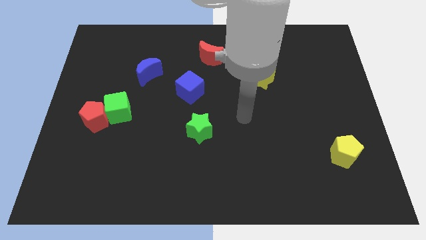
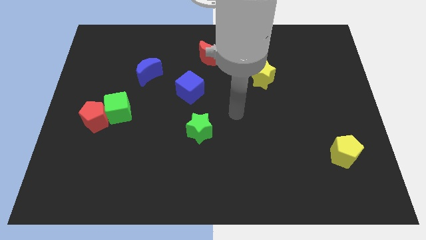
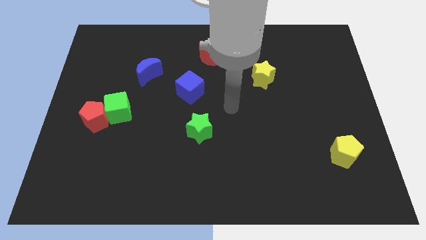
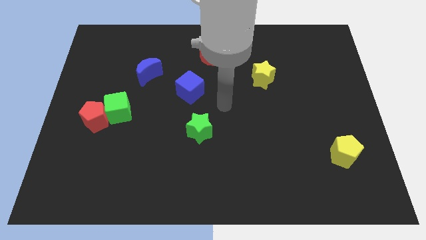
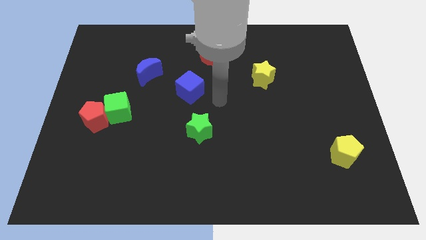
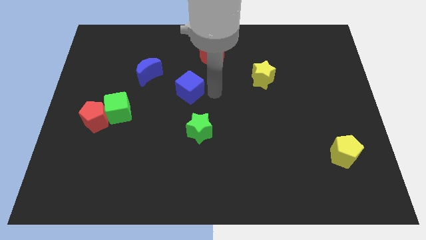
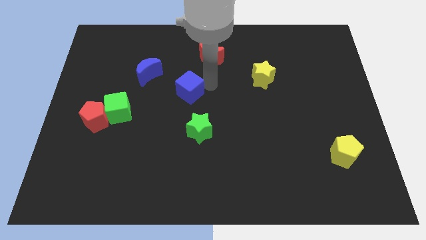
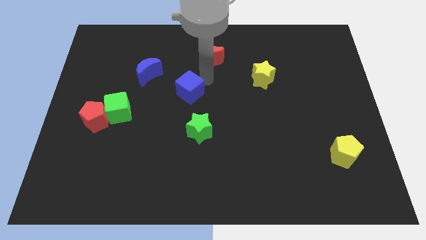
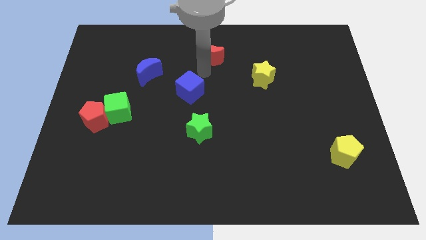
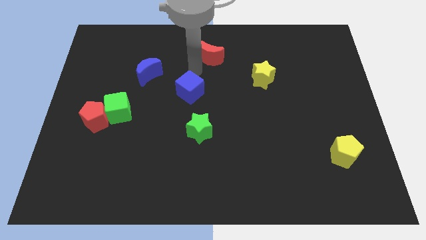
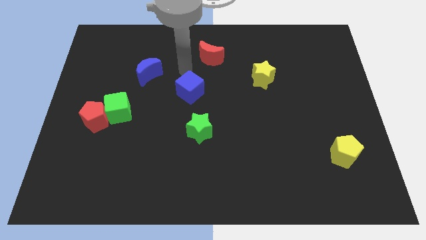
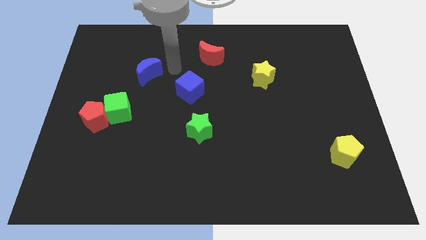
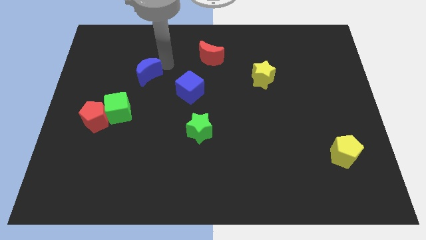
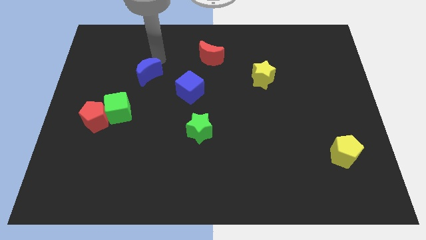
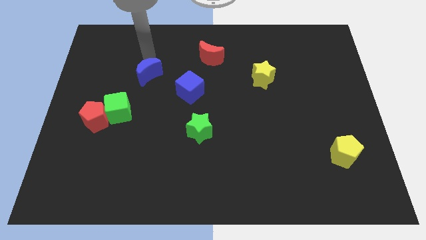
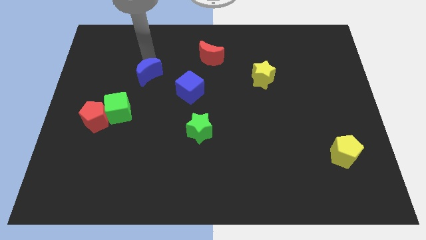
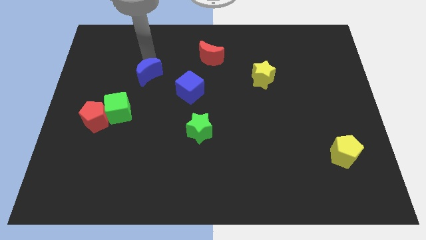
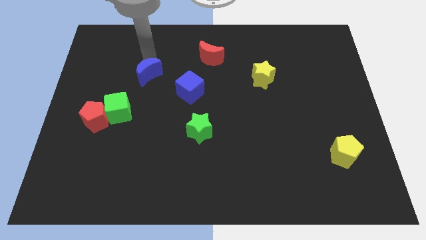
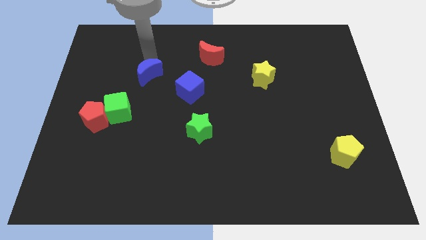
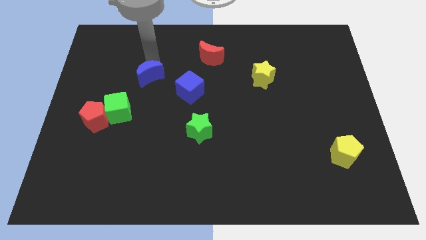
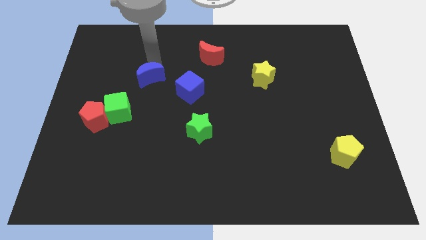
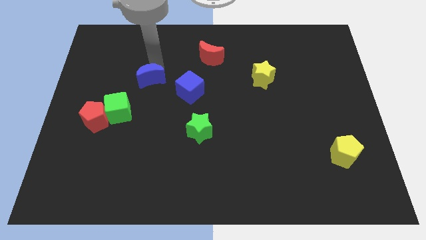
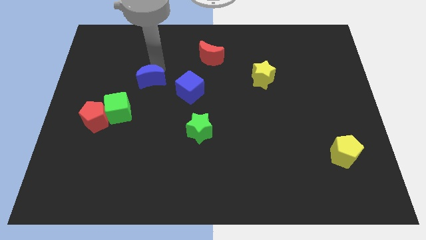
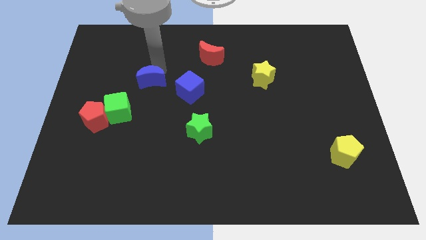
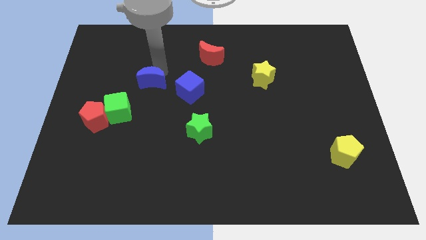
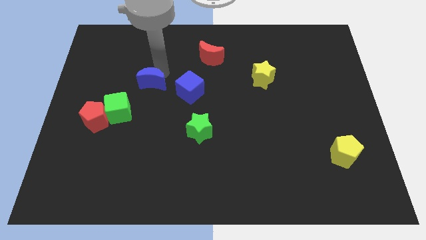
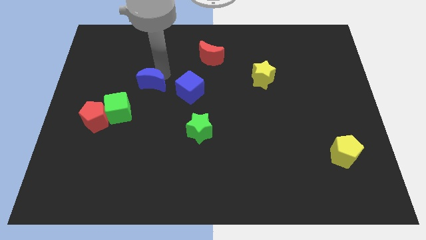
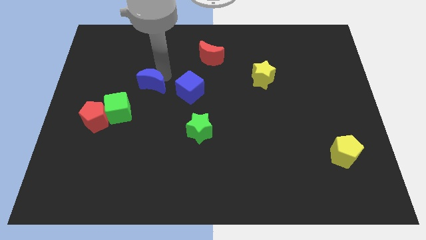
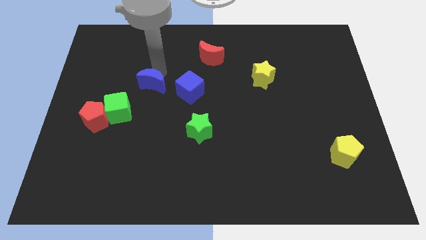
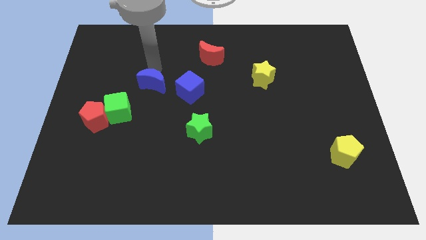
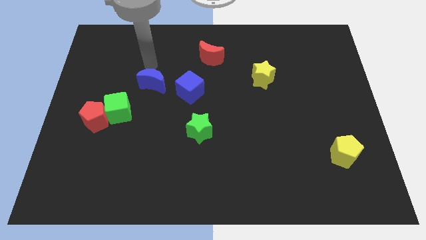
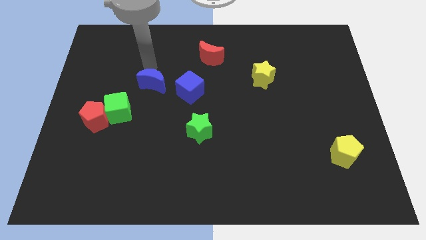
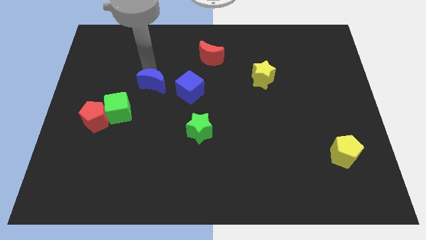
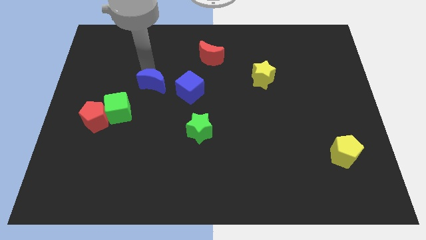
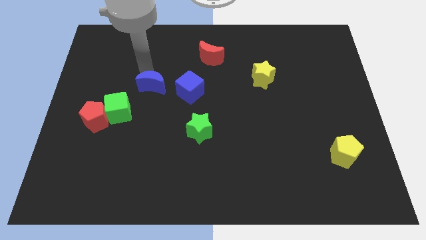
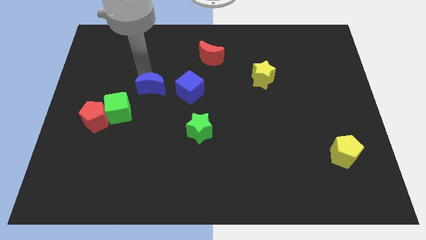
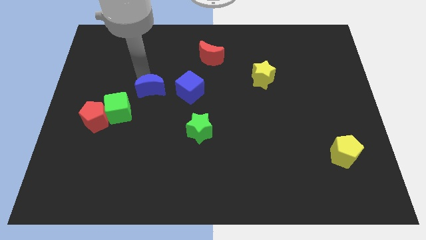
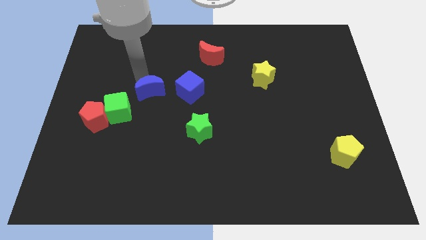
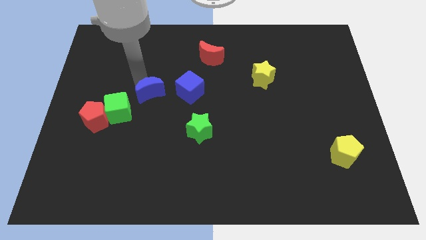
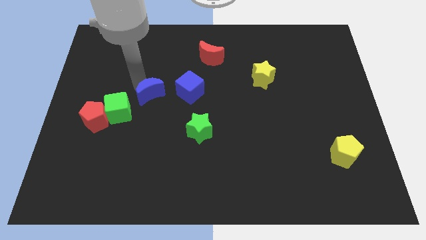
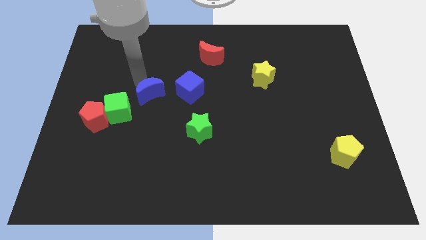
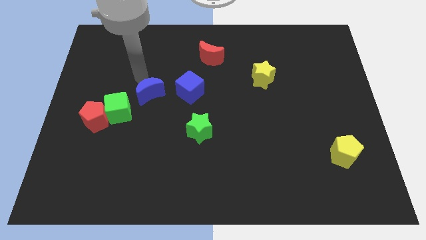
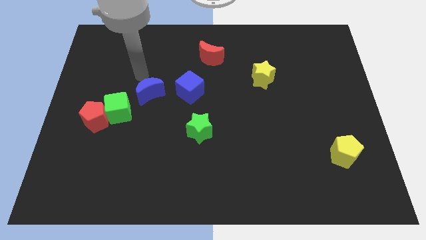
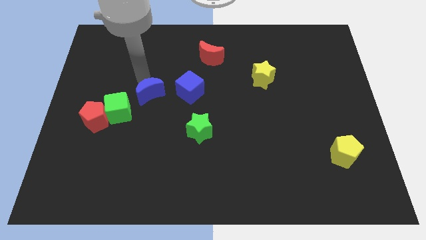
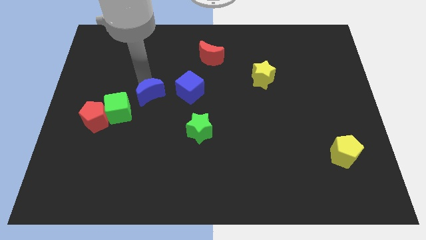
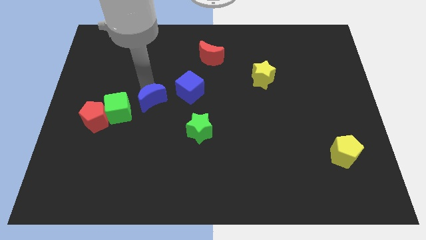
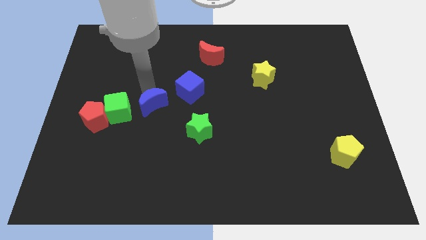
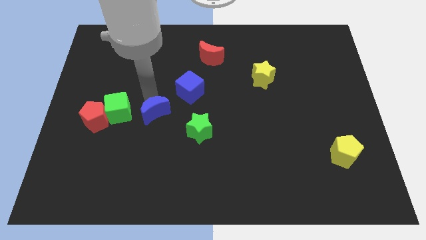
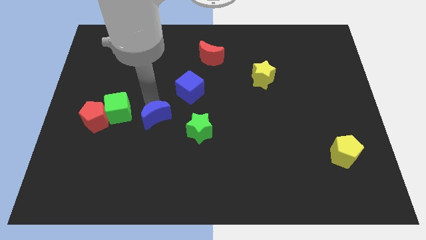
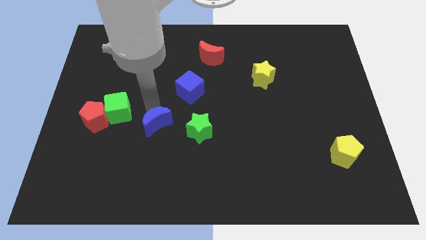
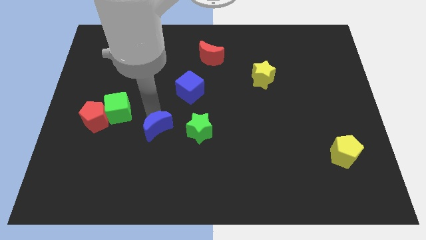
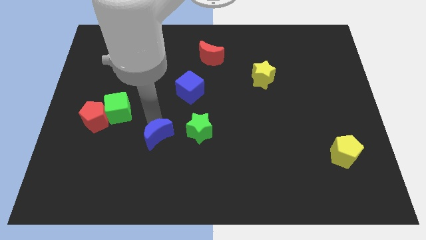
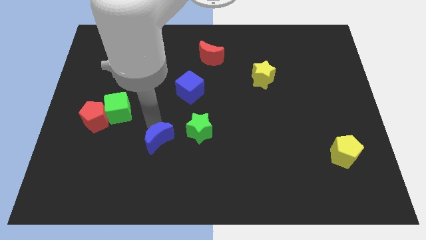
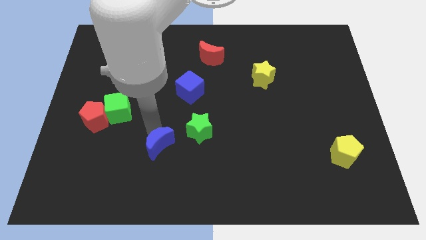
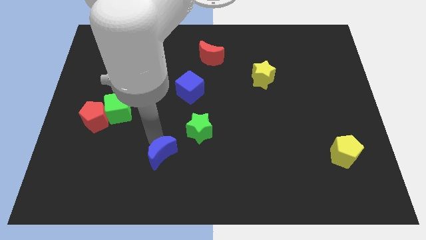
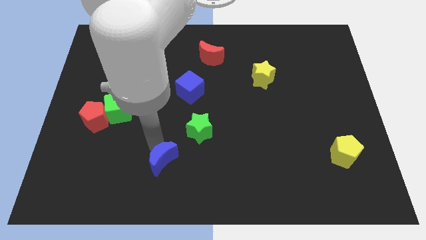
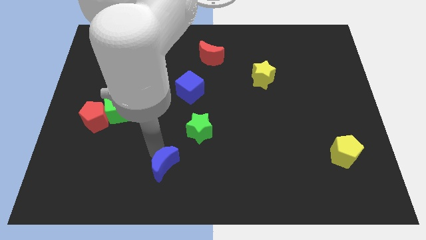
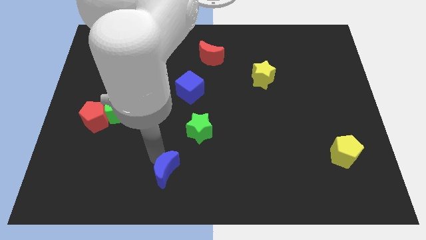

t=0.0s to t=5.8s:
move the blue moon to the bottom

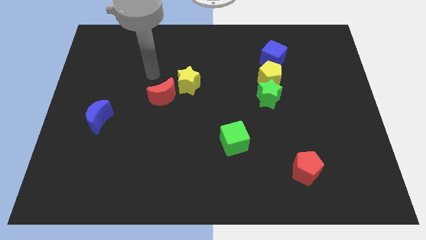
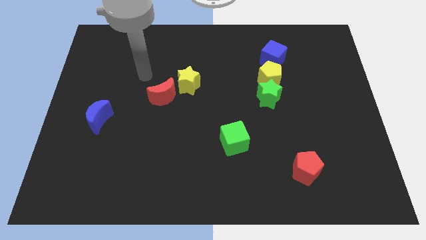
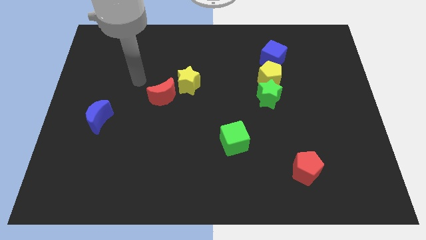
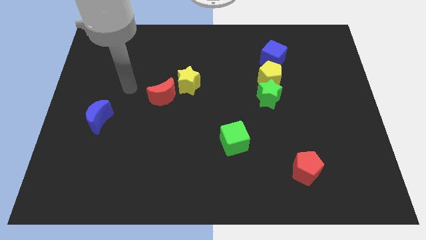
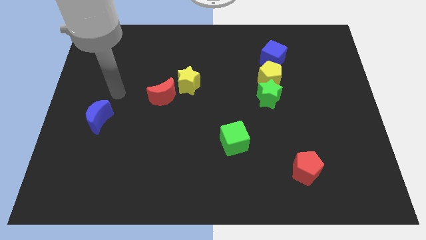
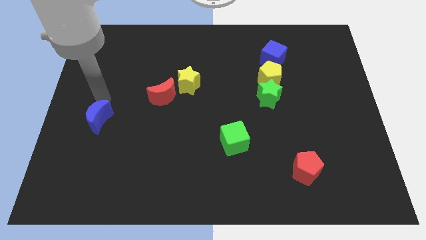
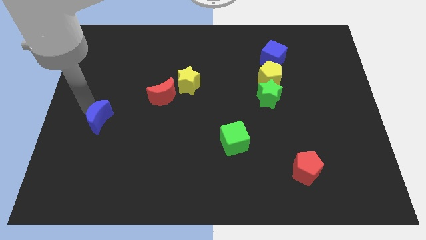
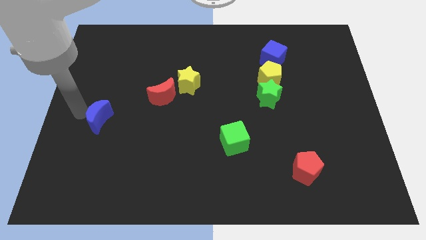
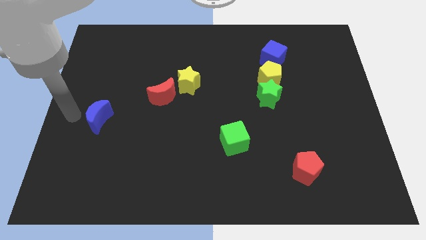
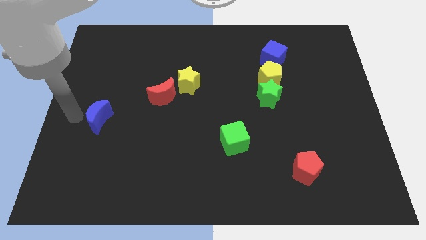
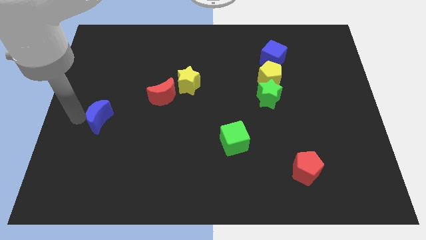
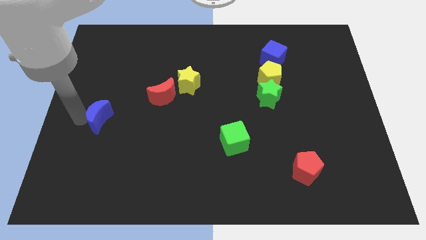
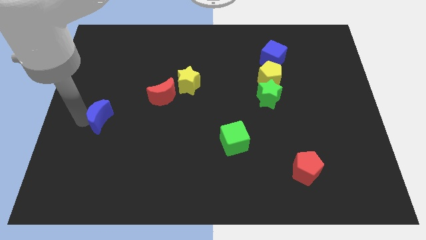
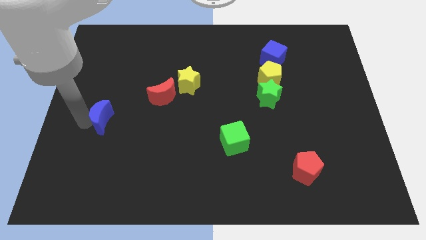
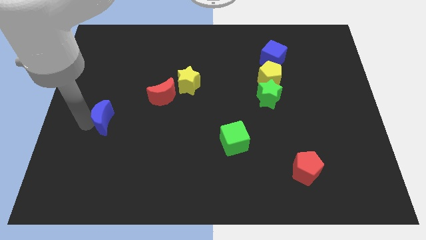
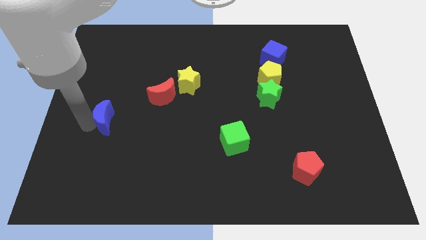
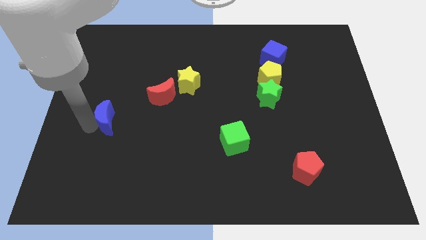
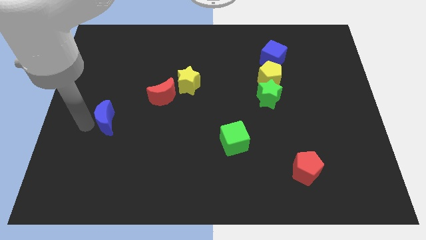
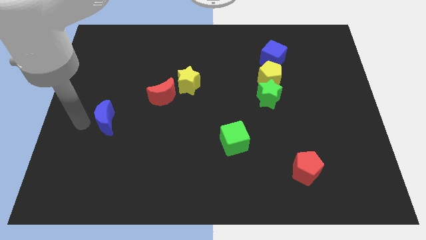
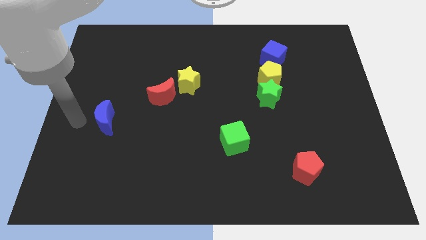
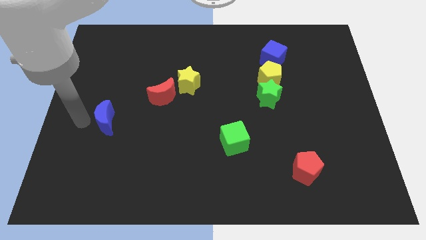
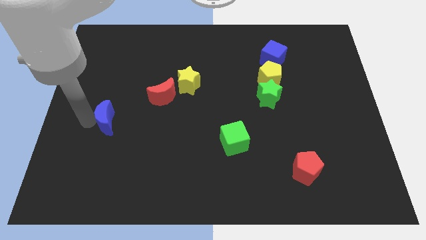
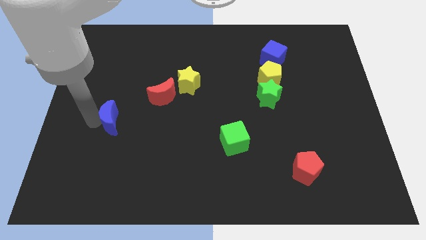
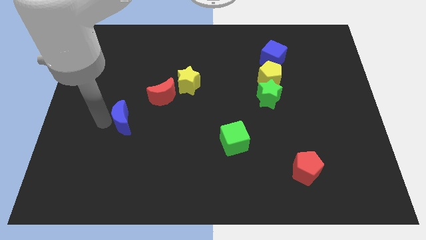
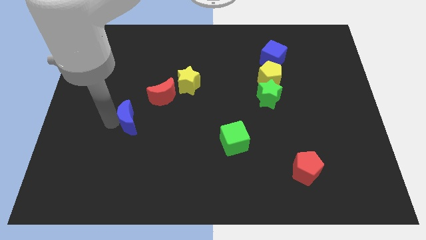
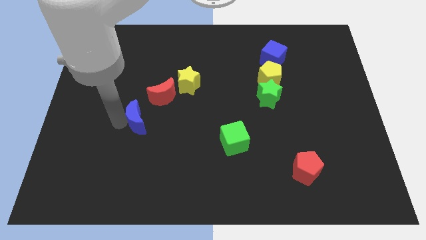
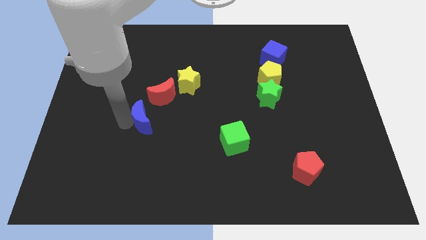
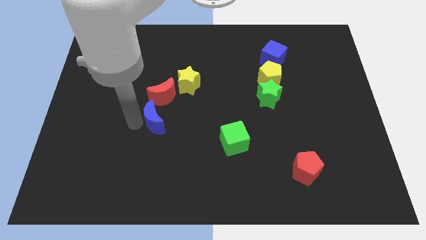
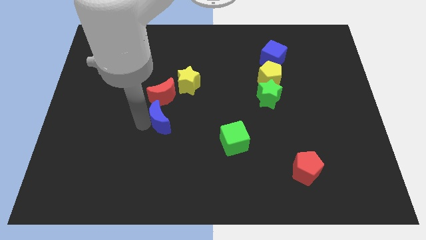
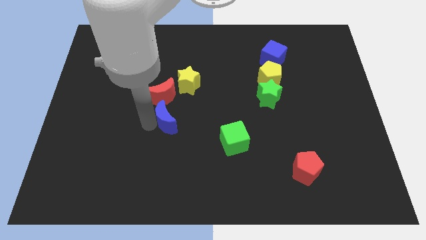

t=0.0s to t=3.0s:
slide the blue moon to the middle
